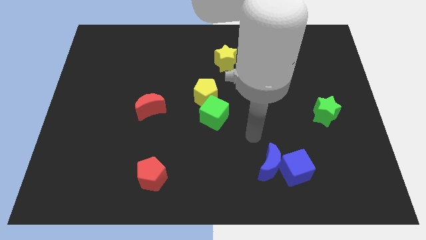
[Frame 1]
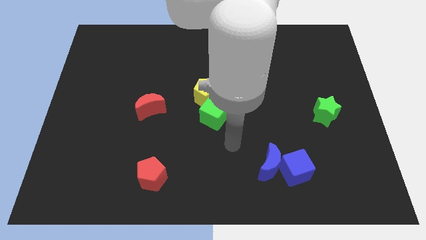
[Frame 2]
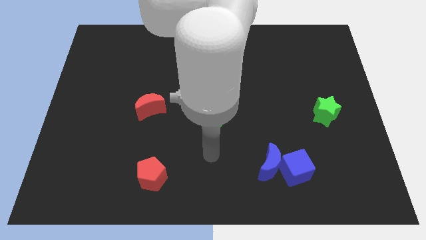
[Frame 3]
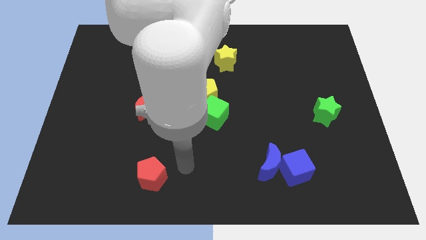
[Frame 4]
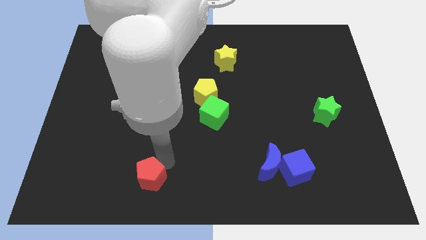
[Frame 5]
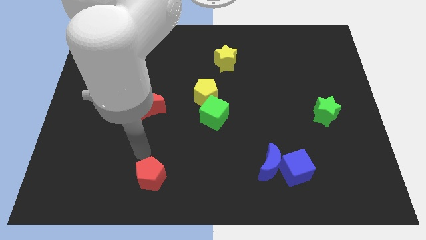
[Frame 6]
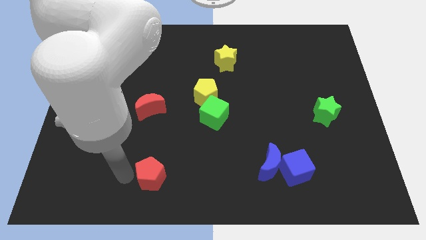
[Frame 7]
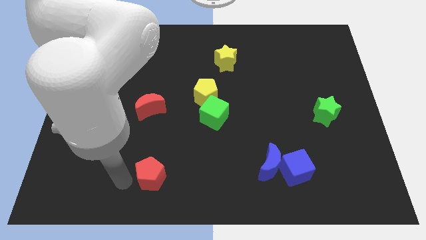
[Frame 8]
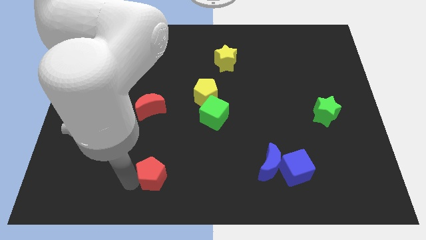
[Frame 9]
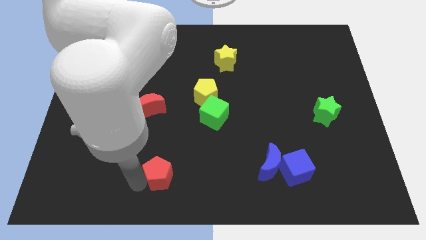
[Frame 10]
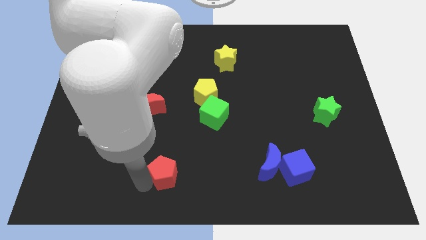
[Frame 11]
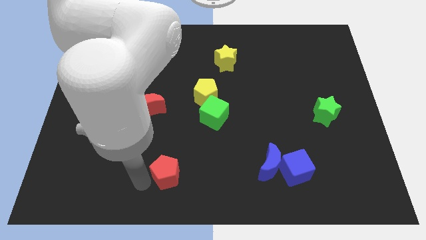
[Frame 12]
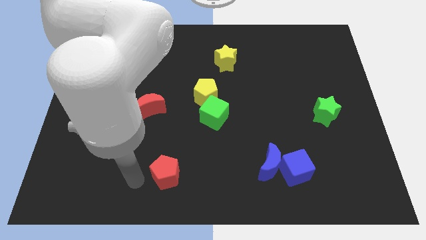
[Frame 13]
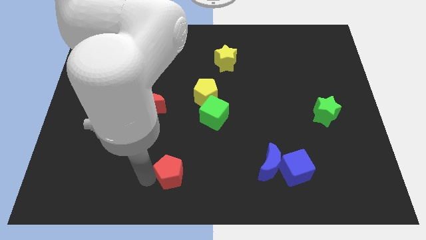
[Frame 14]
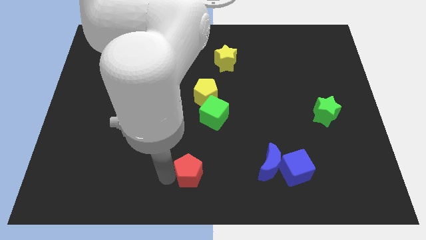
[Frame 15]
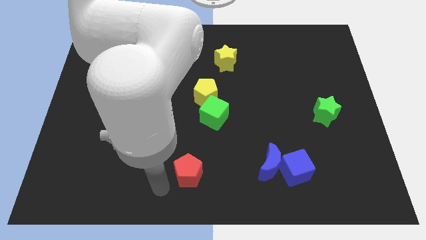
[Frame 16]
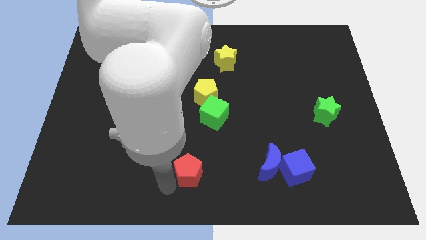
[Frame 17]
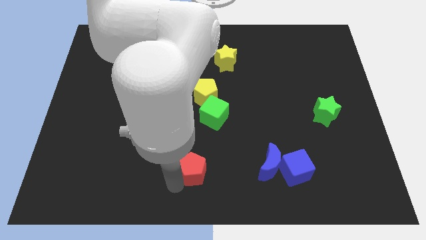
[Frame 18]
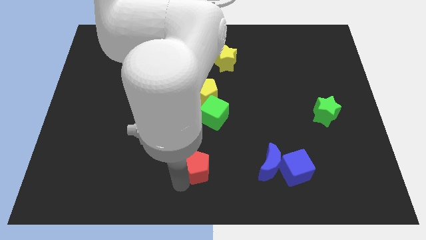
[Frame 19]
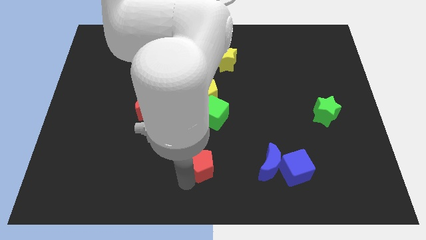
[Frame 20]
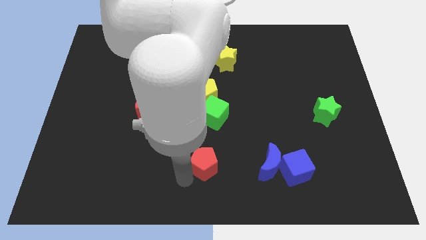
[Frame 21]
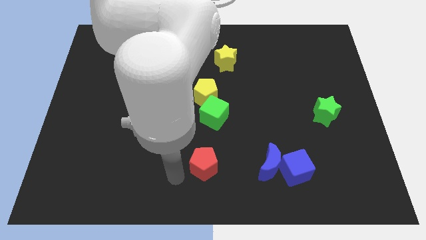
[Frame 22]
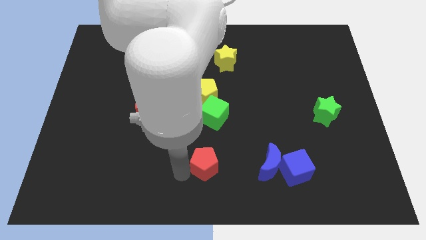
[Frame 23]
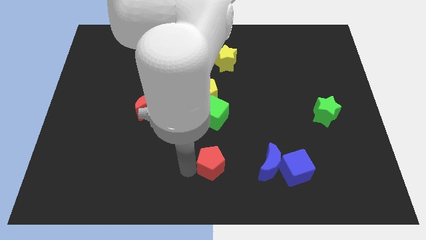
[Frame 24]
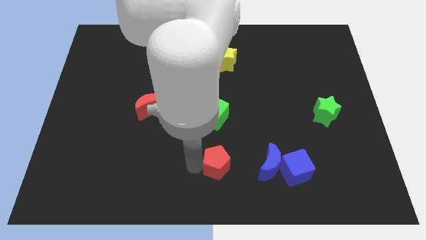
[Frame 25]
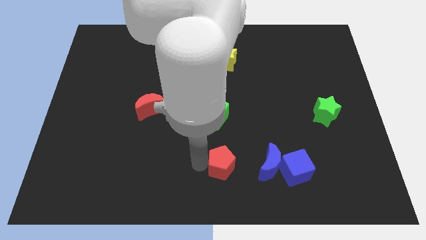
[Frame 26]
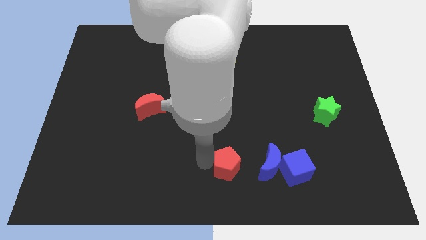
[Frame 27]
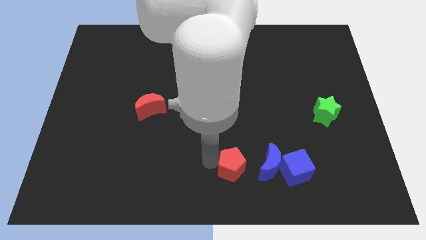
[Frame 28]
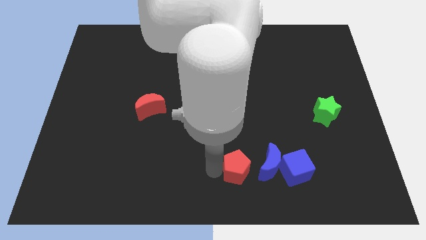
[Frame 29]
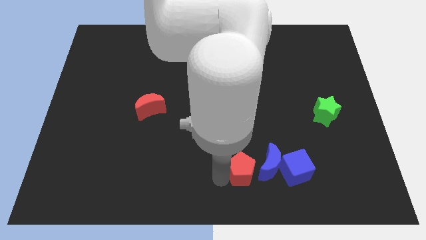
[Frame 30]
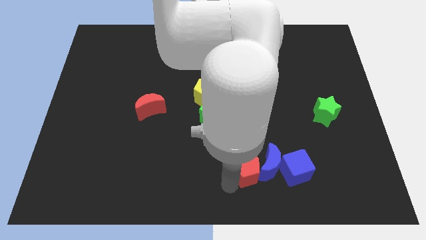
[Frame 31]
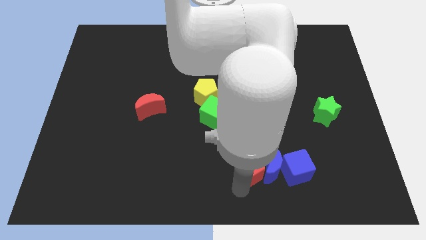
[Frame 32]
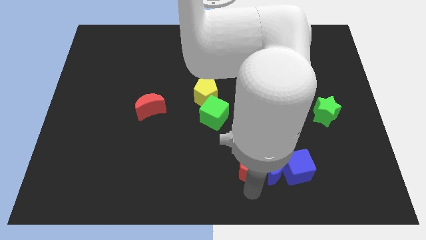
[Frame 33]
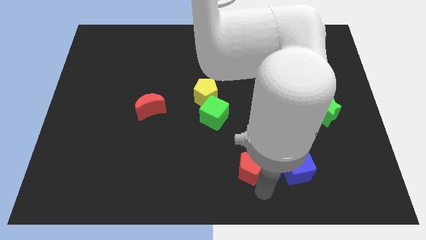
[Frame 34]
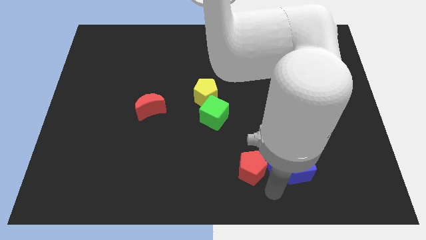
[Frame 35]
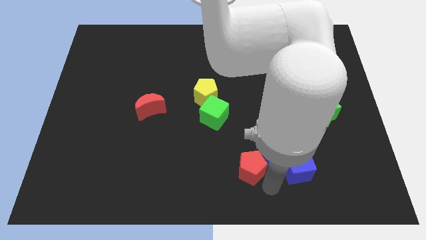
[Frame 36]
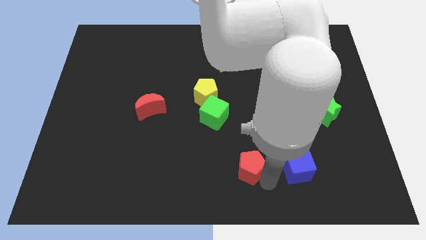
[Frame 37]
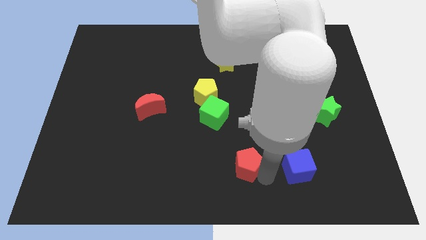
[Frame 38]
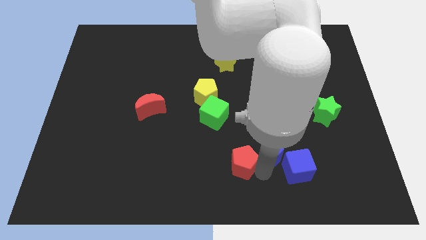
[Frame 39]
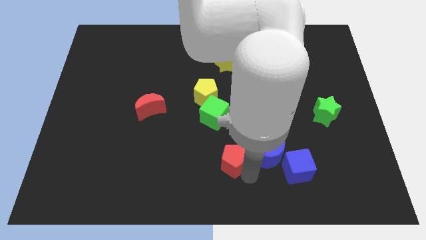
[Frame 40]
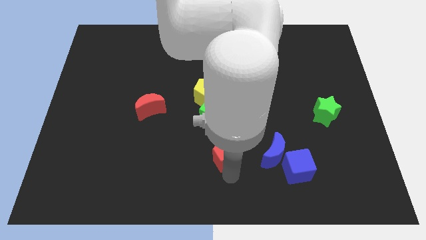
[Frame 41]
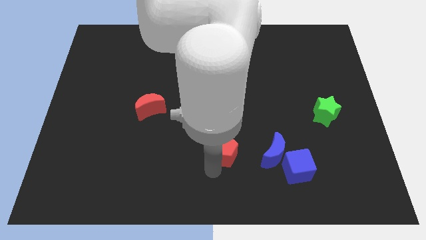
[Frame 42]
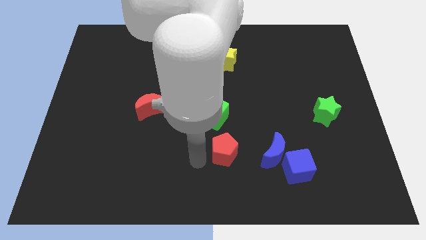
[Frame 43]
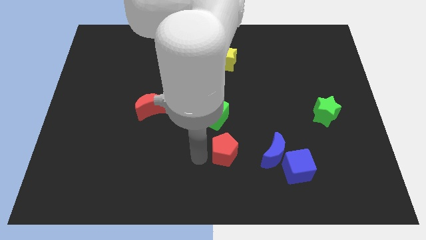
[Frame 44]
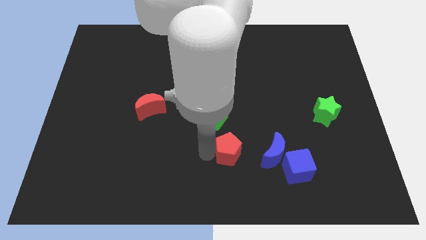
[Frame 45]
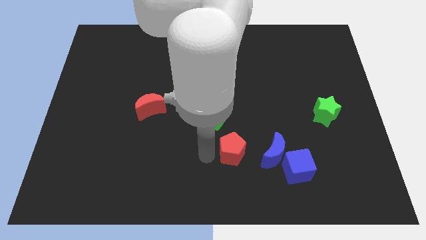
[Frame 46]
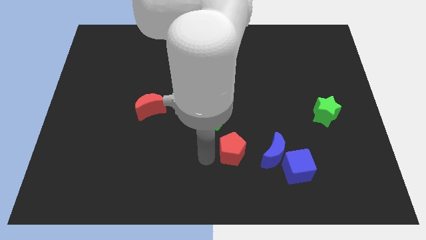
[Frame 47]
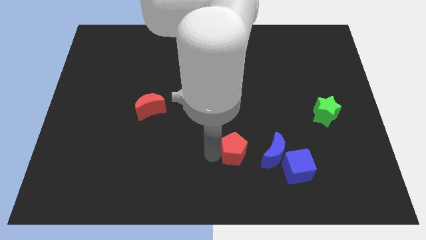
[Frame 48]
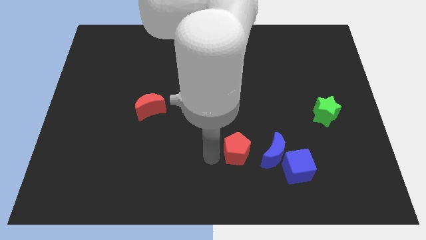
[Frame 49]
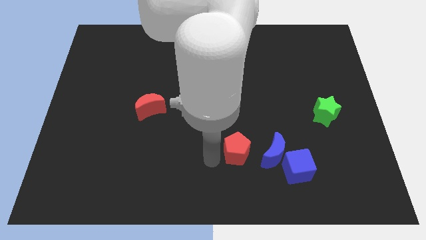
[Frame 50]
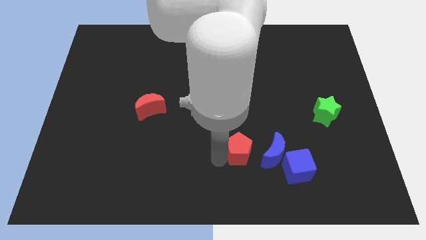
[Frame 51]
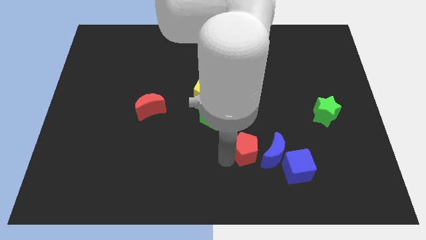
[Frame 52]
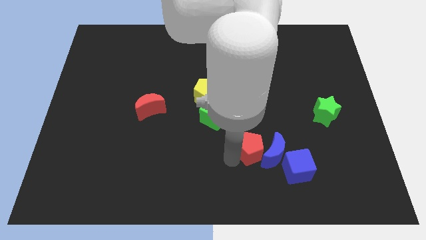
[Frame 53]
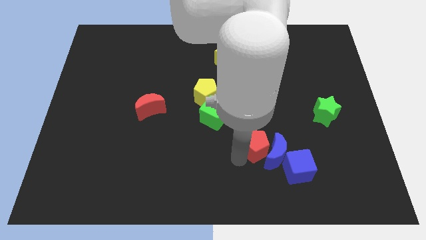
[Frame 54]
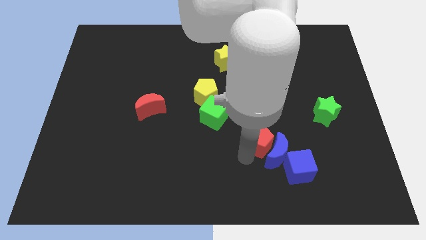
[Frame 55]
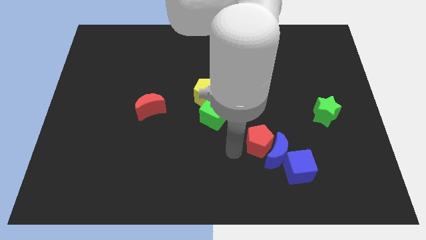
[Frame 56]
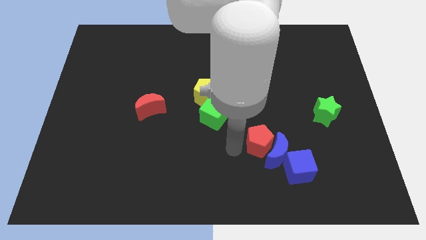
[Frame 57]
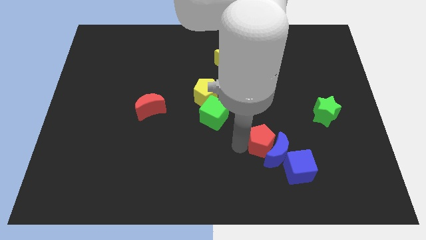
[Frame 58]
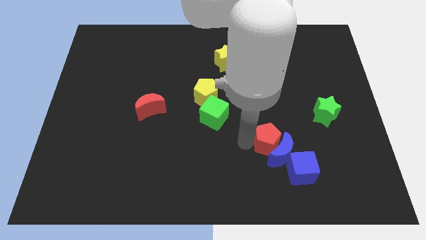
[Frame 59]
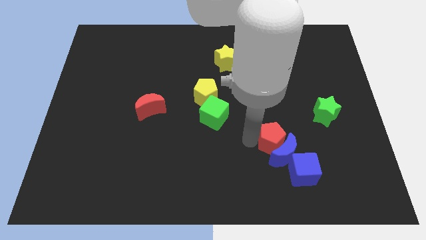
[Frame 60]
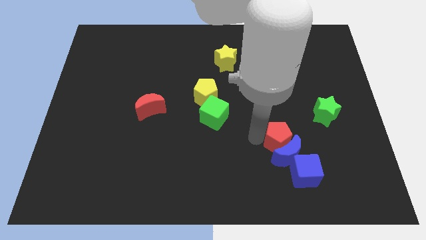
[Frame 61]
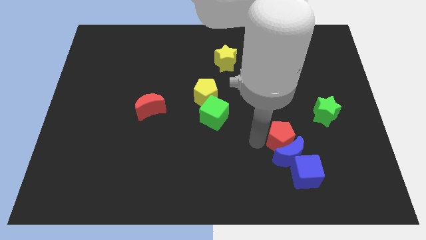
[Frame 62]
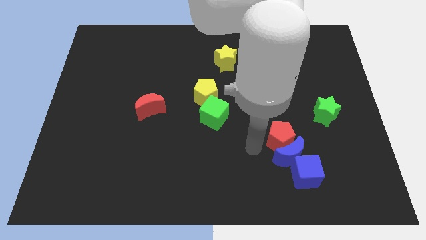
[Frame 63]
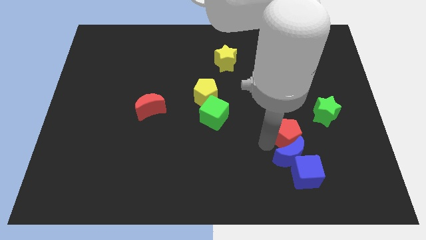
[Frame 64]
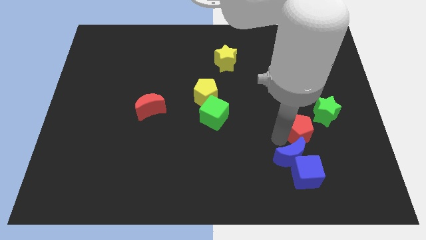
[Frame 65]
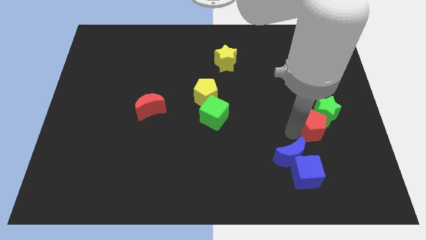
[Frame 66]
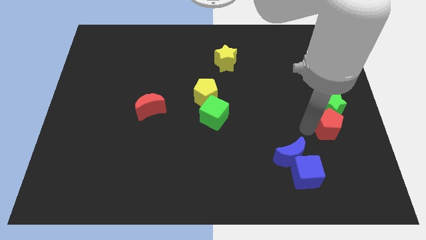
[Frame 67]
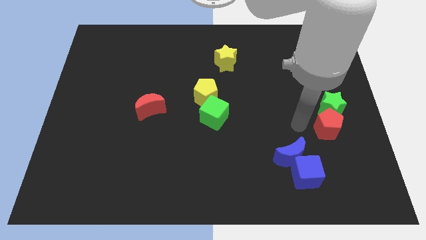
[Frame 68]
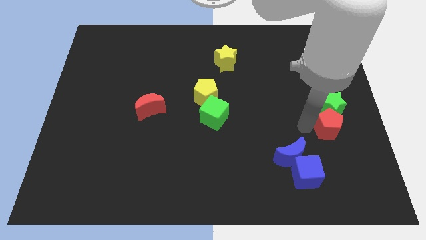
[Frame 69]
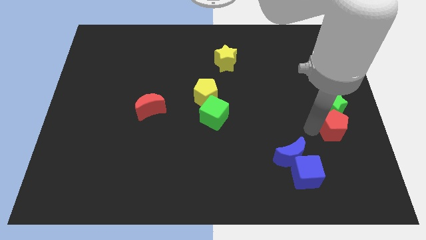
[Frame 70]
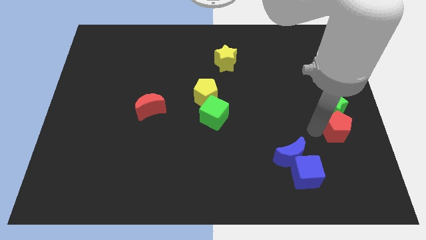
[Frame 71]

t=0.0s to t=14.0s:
push the red pentagon to the right side

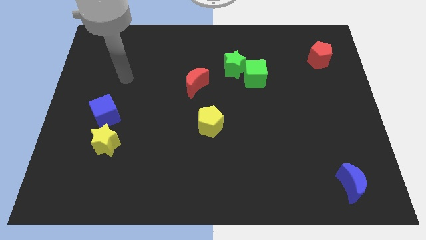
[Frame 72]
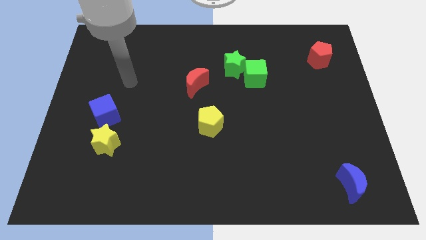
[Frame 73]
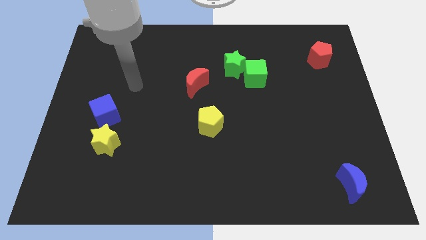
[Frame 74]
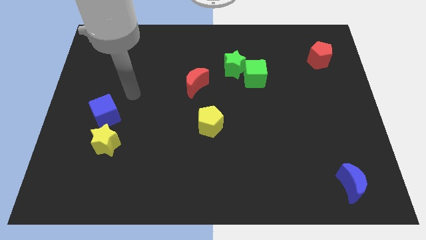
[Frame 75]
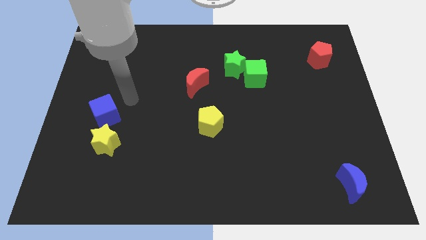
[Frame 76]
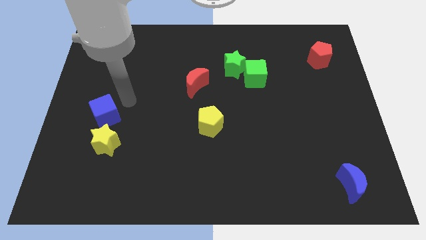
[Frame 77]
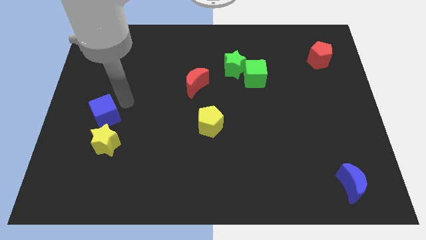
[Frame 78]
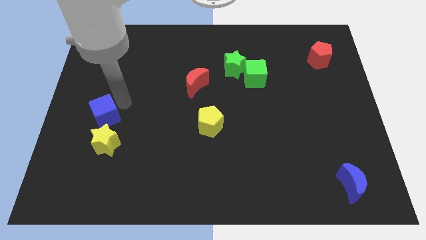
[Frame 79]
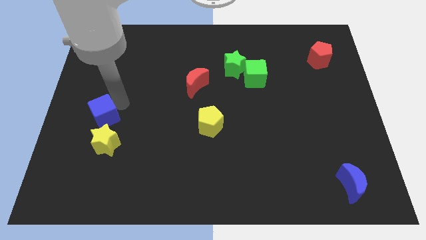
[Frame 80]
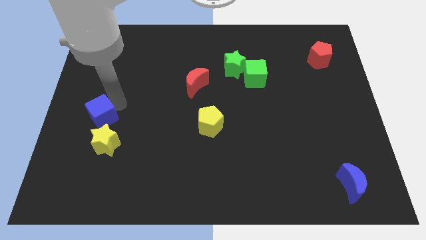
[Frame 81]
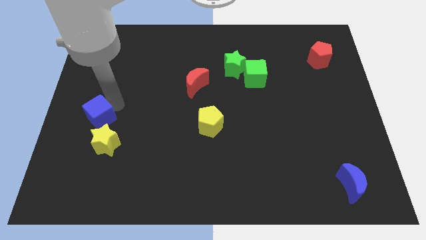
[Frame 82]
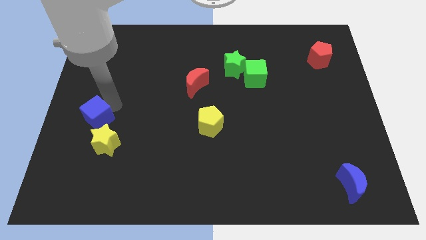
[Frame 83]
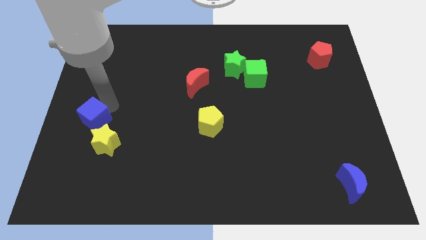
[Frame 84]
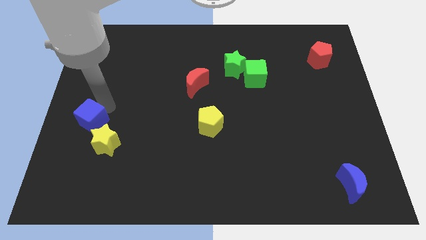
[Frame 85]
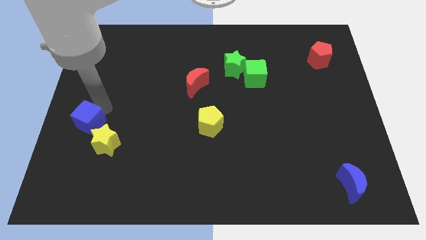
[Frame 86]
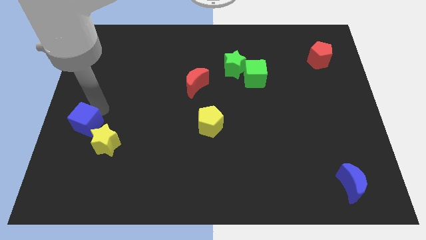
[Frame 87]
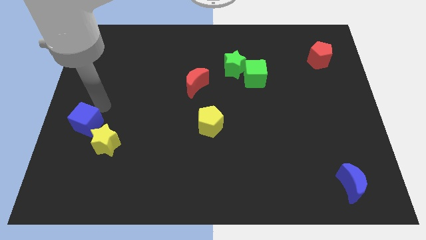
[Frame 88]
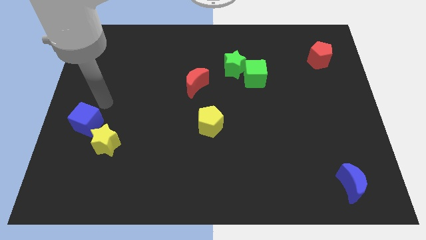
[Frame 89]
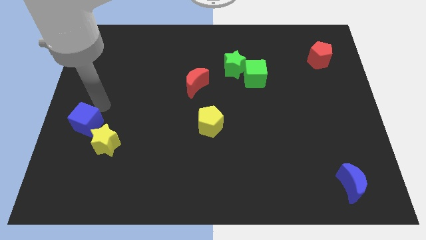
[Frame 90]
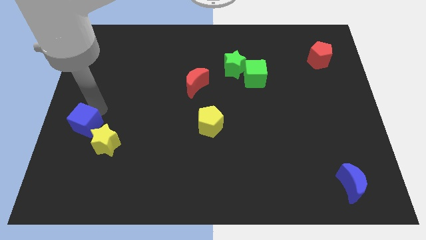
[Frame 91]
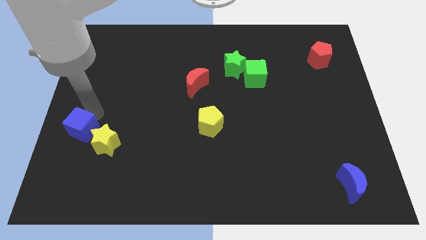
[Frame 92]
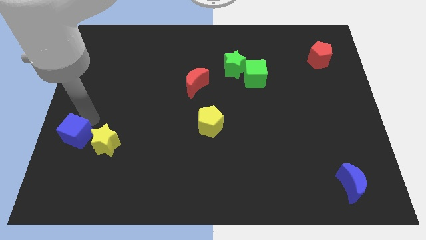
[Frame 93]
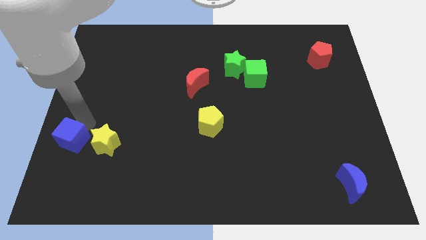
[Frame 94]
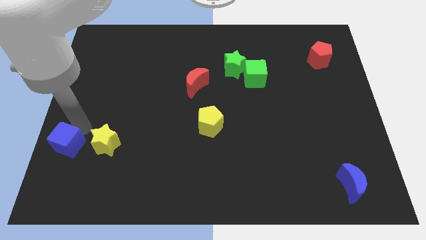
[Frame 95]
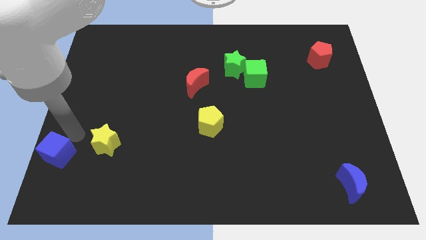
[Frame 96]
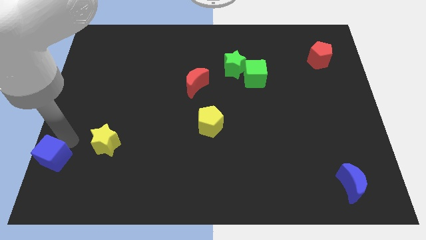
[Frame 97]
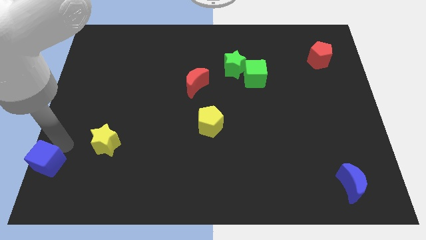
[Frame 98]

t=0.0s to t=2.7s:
slide the blue cube to the bottom left corner
